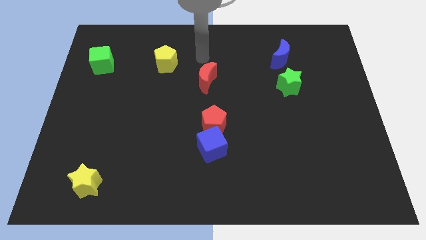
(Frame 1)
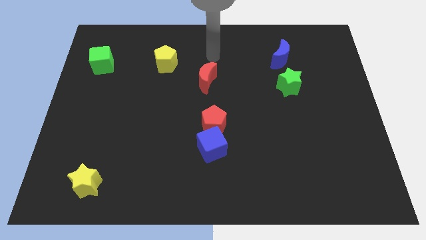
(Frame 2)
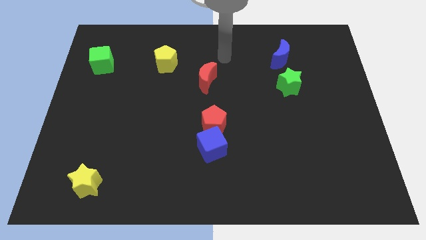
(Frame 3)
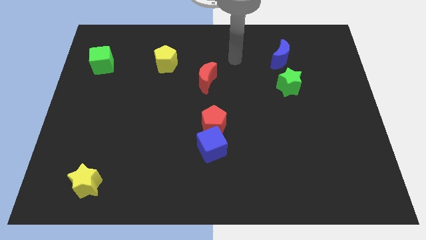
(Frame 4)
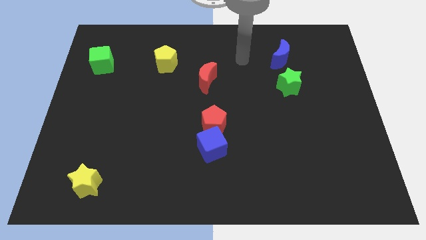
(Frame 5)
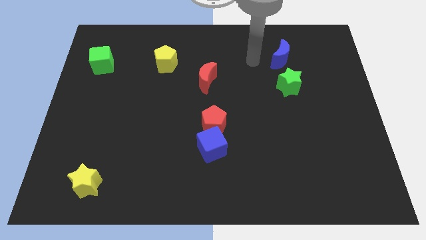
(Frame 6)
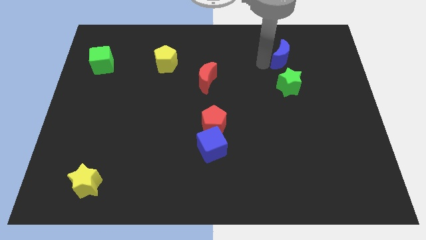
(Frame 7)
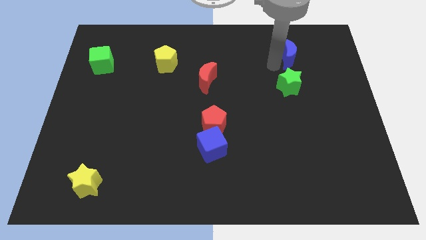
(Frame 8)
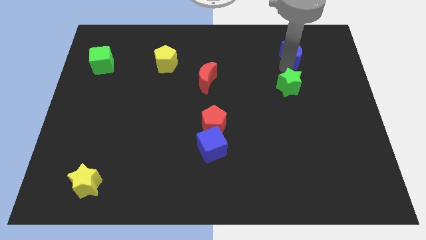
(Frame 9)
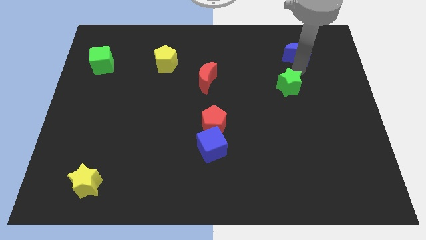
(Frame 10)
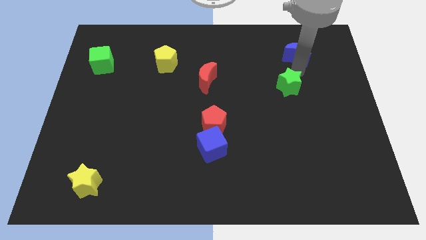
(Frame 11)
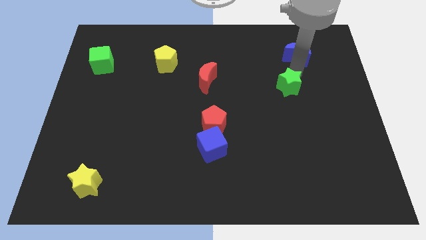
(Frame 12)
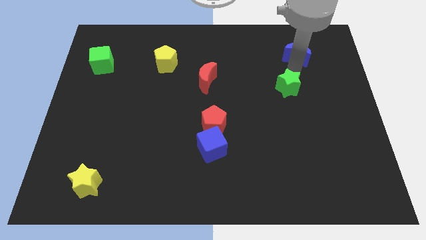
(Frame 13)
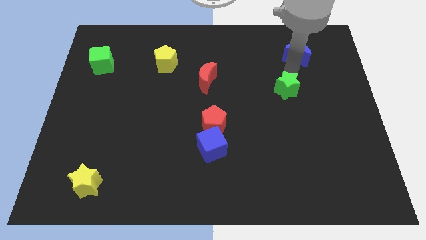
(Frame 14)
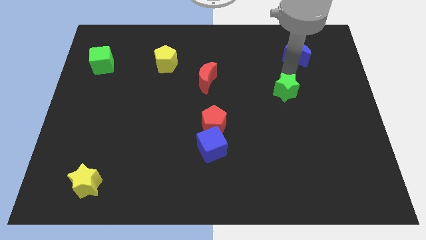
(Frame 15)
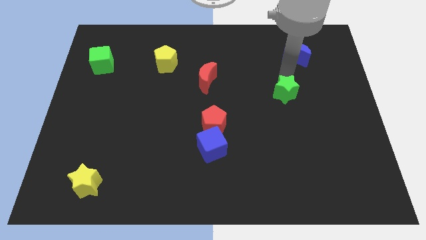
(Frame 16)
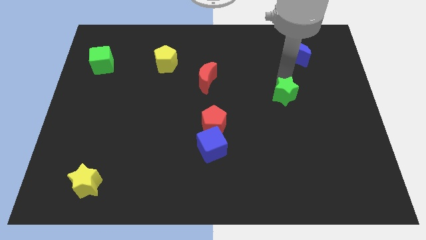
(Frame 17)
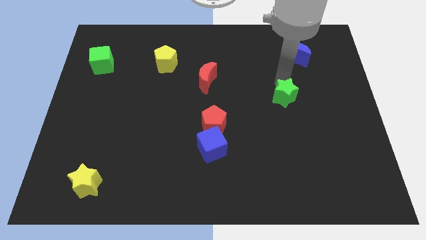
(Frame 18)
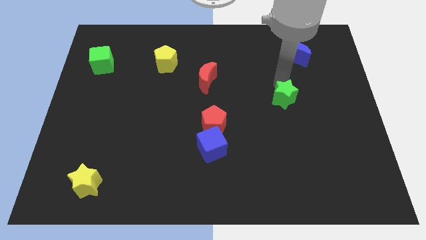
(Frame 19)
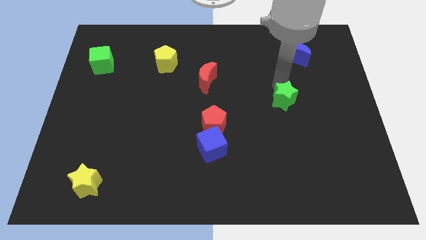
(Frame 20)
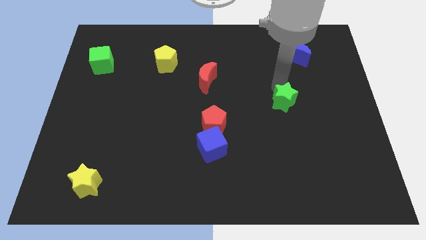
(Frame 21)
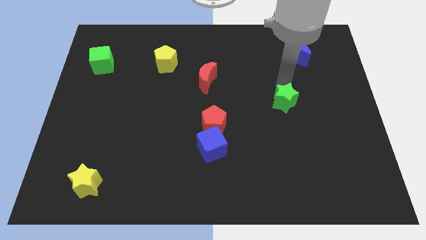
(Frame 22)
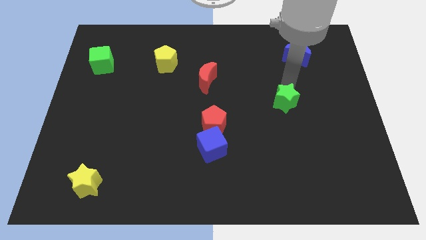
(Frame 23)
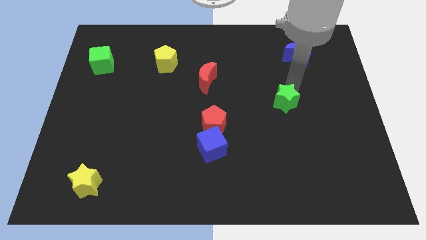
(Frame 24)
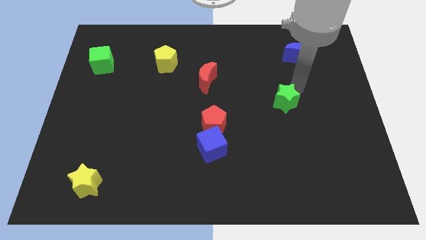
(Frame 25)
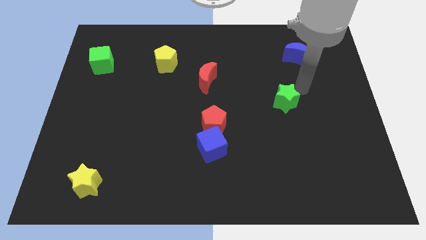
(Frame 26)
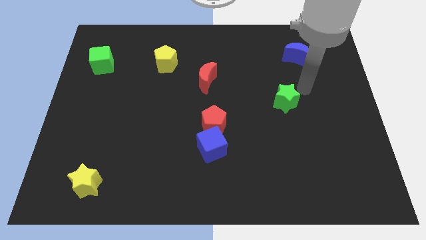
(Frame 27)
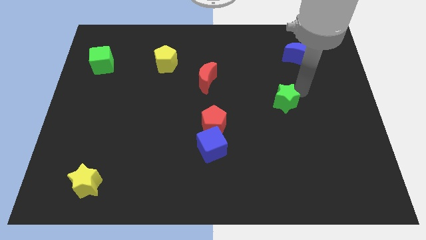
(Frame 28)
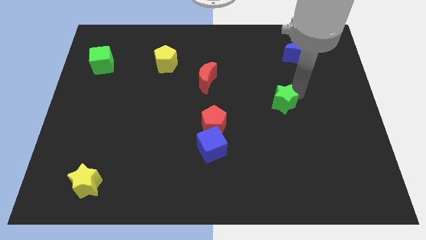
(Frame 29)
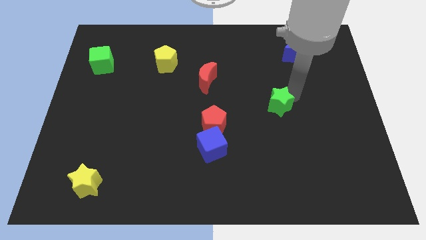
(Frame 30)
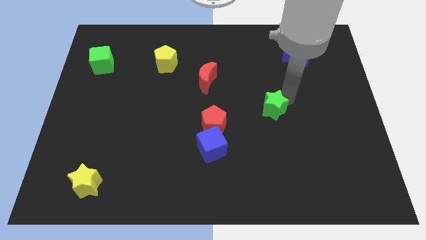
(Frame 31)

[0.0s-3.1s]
move the green star downwards and left a bit

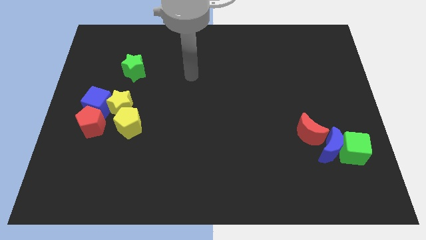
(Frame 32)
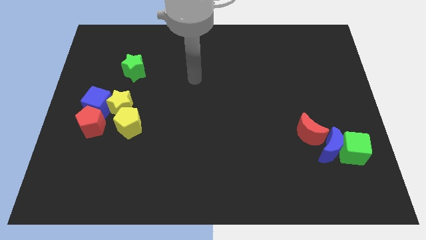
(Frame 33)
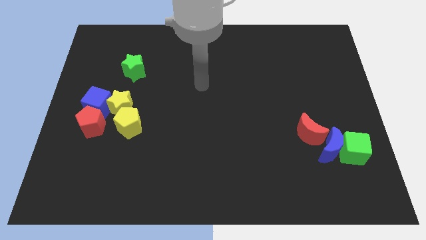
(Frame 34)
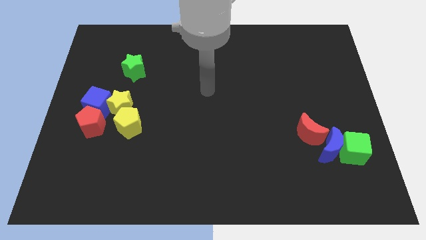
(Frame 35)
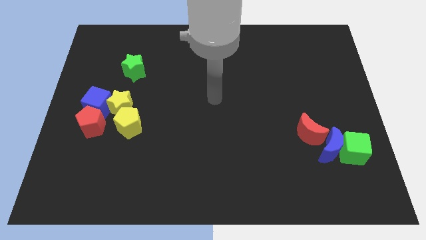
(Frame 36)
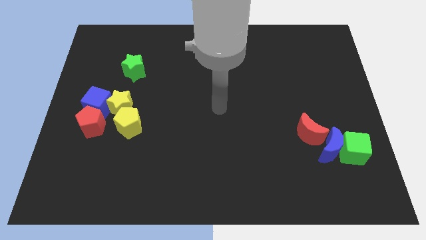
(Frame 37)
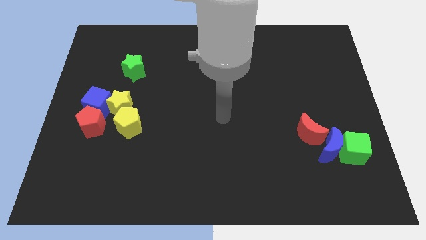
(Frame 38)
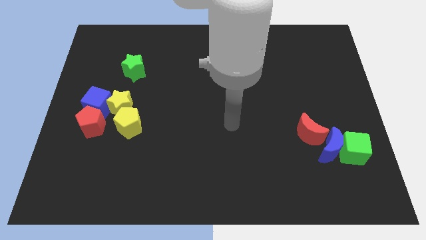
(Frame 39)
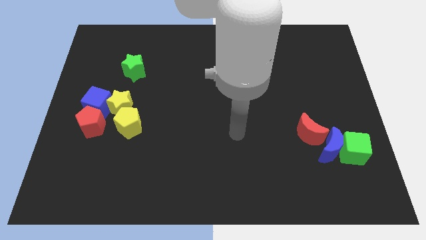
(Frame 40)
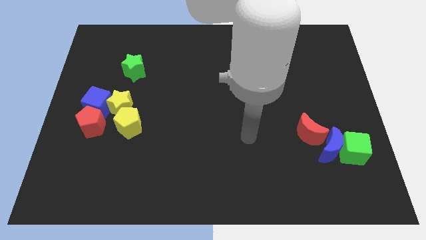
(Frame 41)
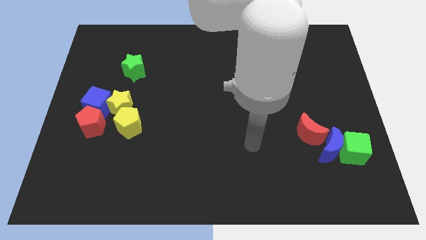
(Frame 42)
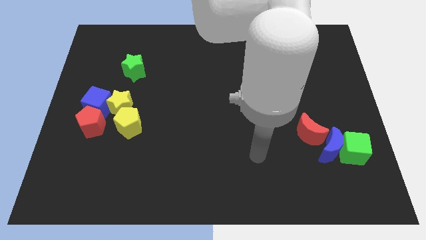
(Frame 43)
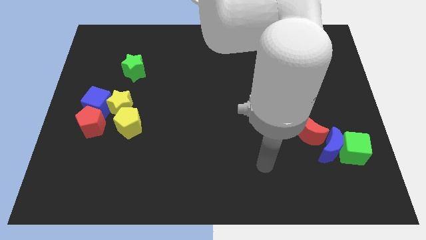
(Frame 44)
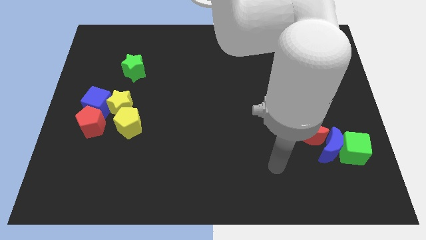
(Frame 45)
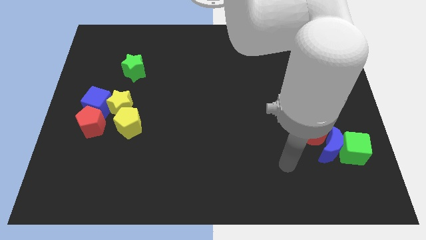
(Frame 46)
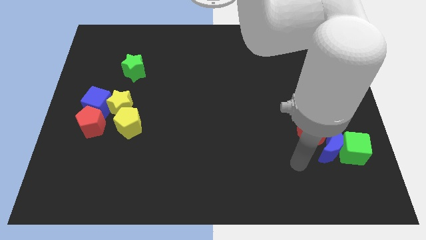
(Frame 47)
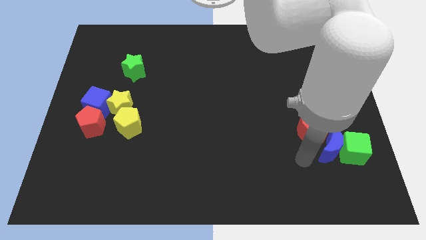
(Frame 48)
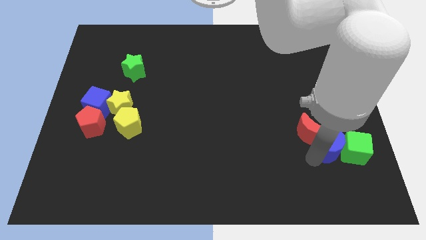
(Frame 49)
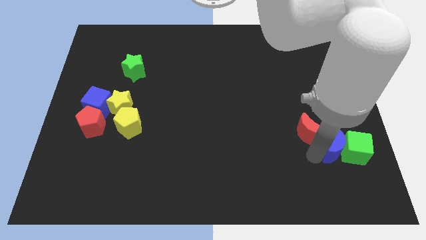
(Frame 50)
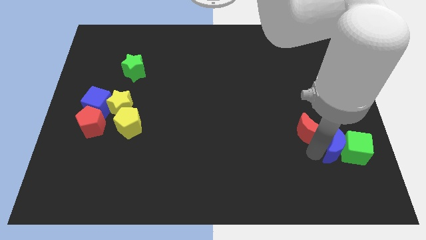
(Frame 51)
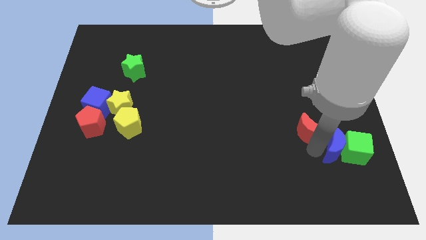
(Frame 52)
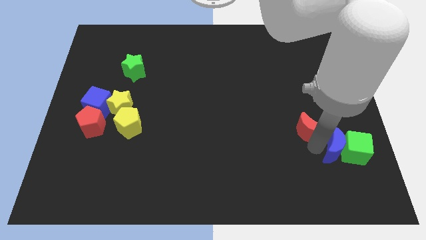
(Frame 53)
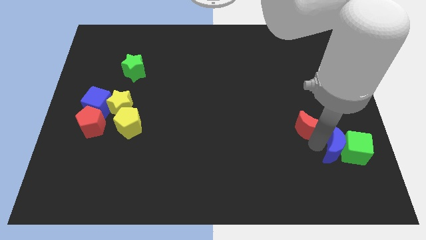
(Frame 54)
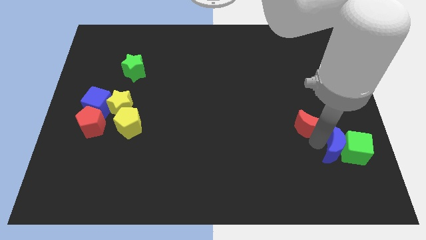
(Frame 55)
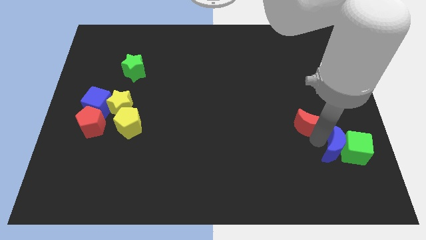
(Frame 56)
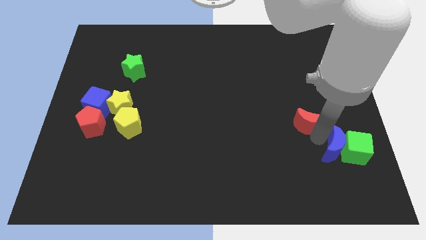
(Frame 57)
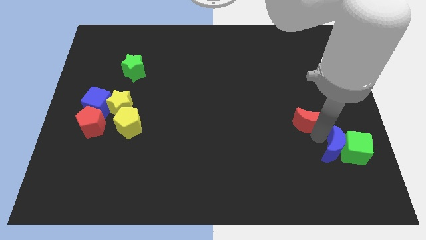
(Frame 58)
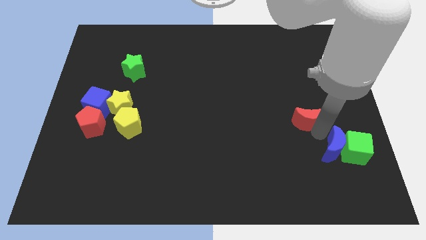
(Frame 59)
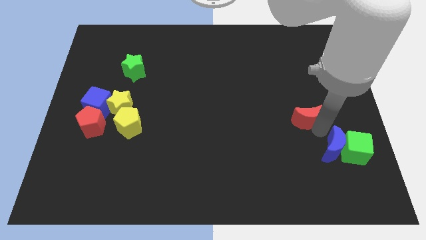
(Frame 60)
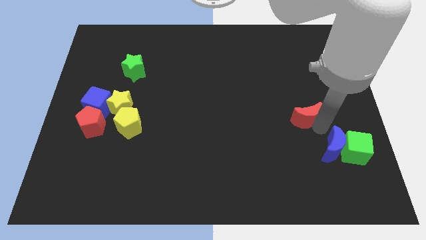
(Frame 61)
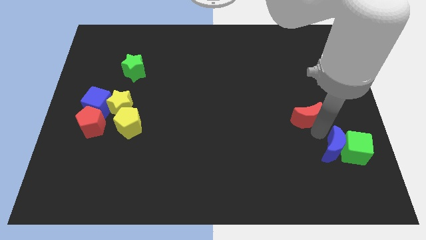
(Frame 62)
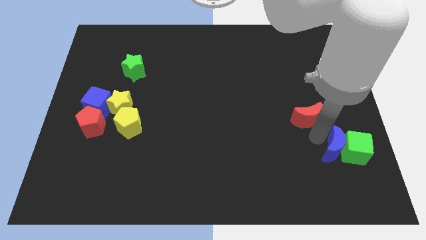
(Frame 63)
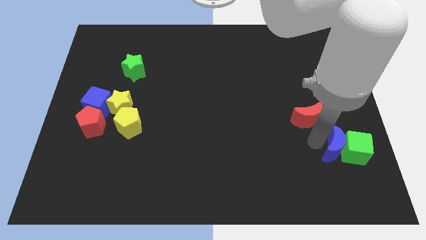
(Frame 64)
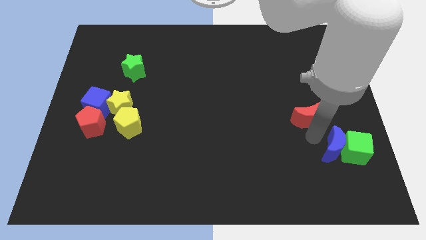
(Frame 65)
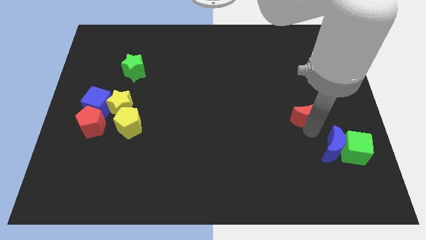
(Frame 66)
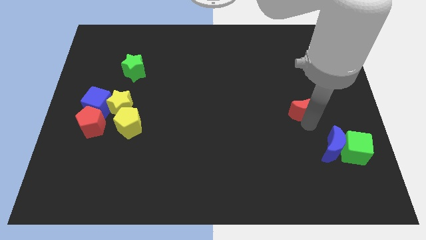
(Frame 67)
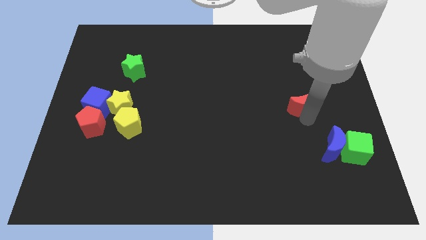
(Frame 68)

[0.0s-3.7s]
push the red moon somewhat up

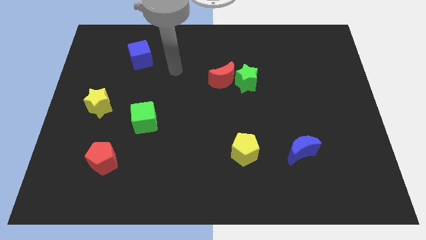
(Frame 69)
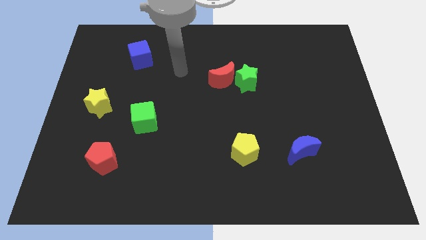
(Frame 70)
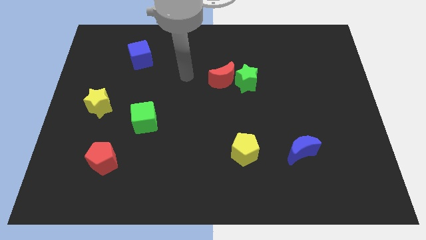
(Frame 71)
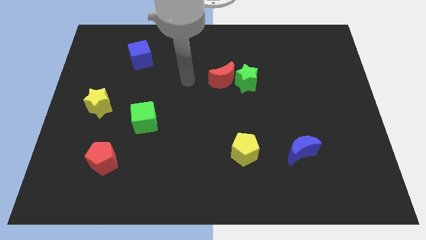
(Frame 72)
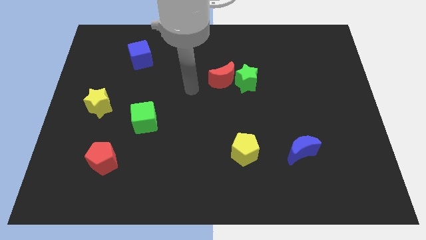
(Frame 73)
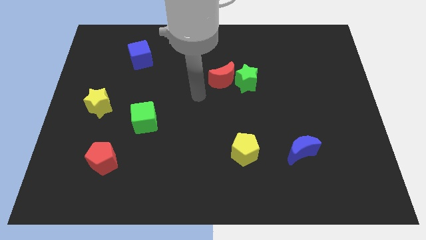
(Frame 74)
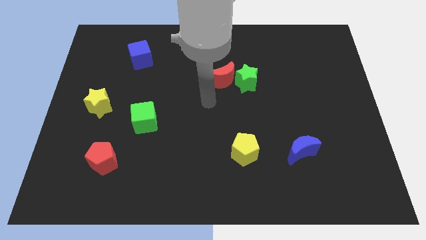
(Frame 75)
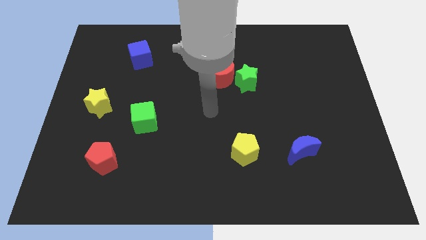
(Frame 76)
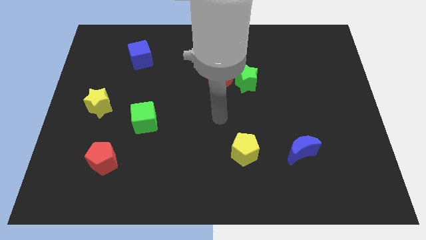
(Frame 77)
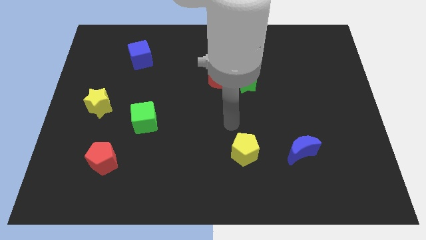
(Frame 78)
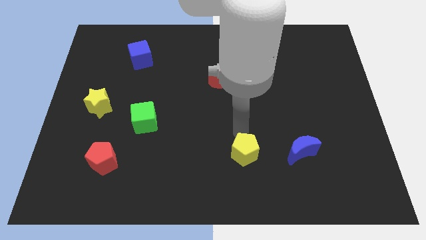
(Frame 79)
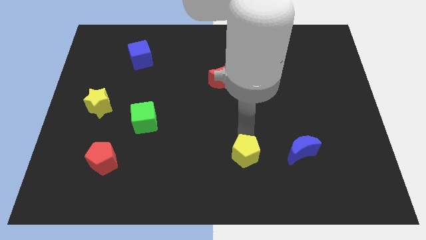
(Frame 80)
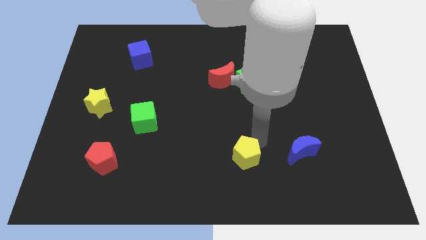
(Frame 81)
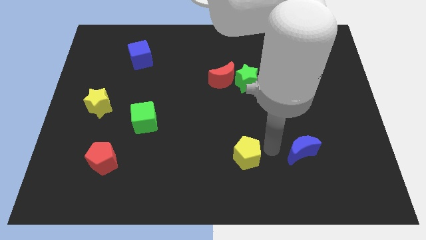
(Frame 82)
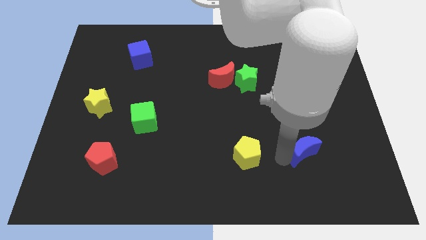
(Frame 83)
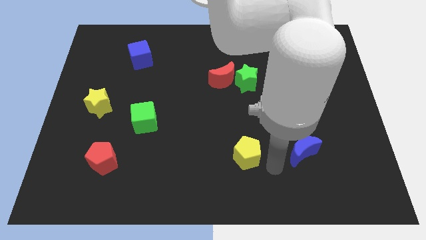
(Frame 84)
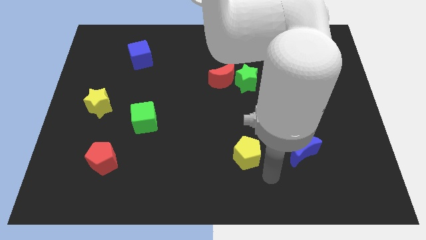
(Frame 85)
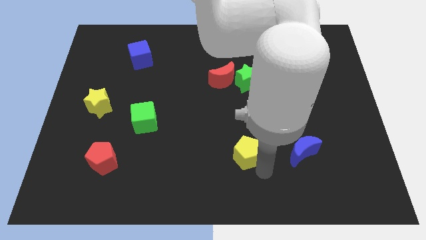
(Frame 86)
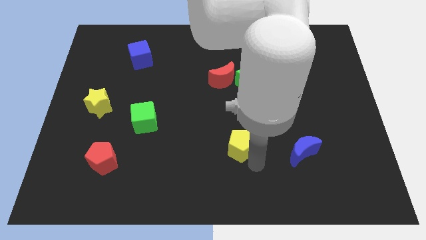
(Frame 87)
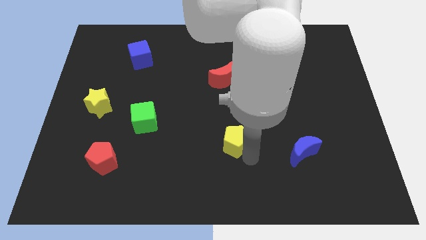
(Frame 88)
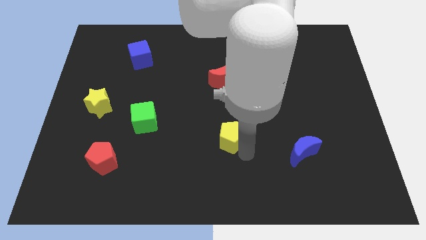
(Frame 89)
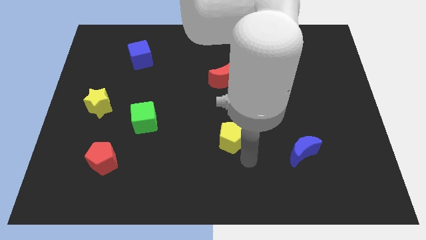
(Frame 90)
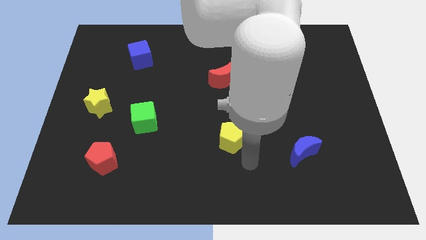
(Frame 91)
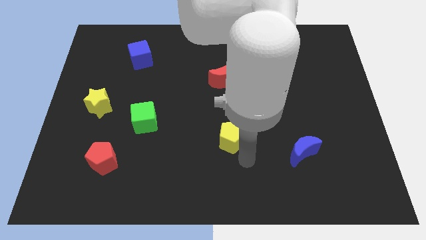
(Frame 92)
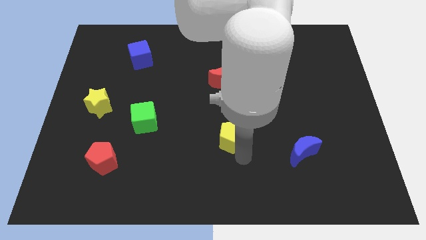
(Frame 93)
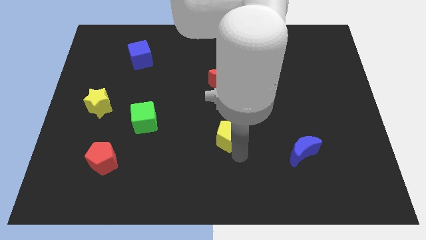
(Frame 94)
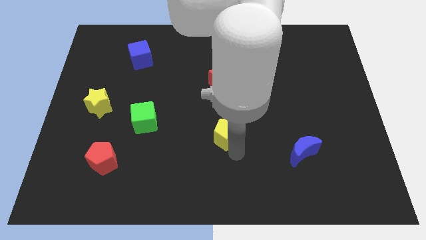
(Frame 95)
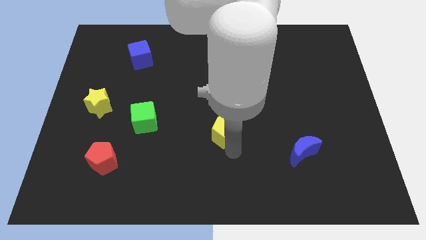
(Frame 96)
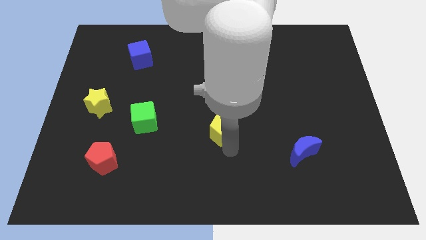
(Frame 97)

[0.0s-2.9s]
move the yellow pentagon up and then left a little bit
